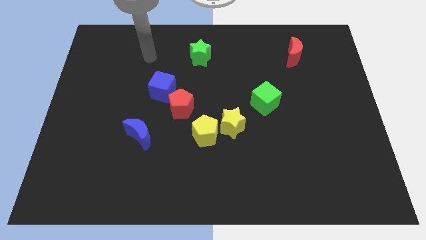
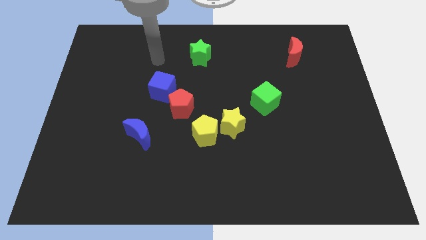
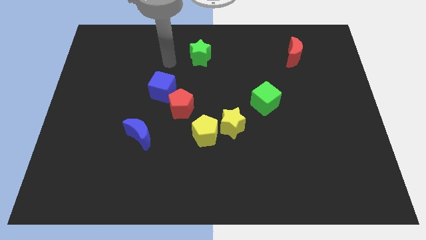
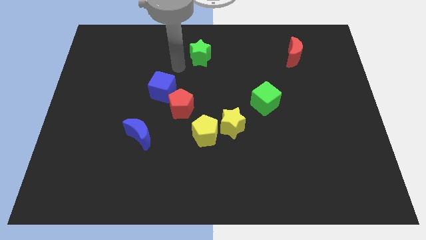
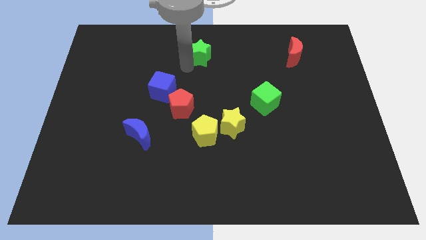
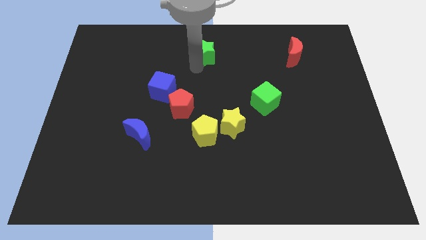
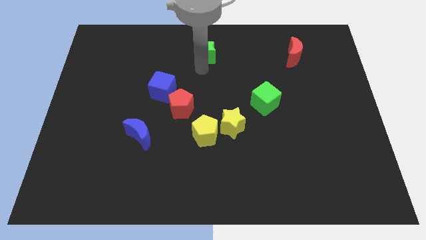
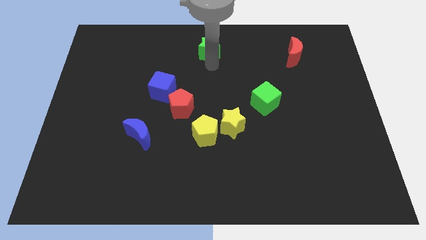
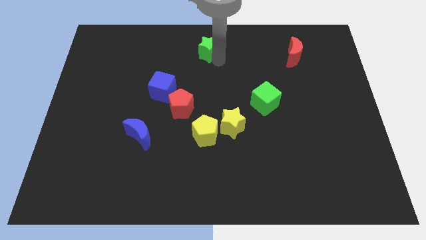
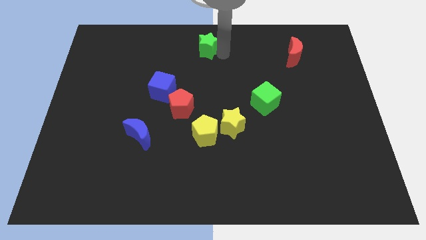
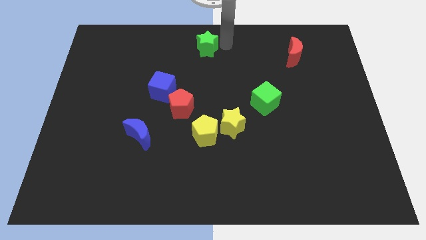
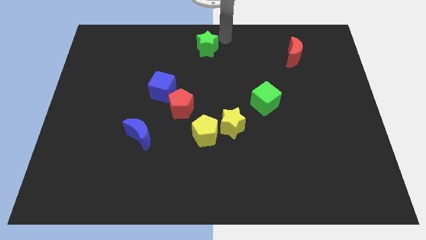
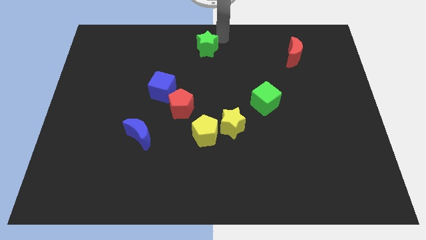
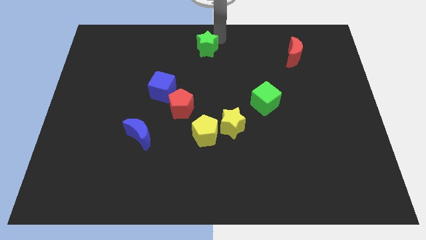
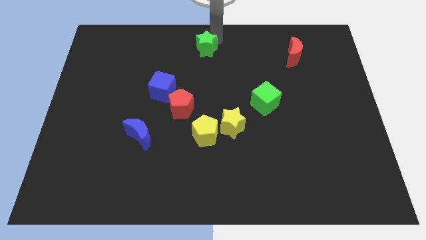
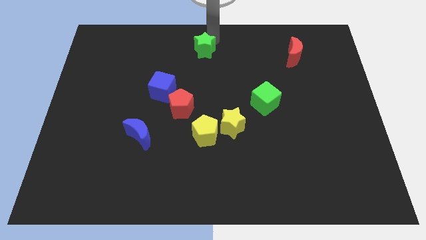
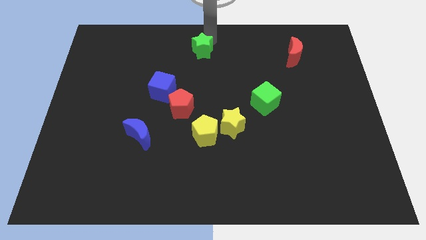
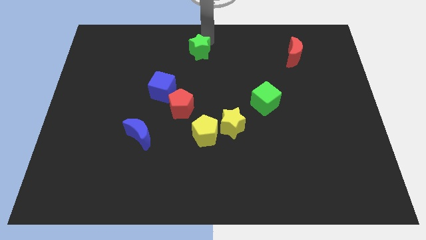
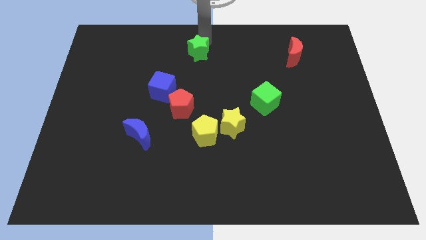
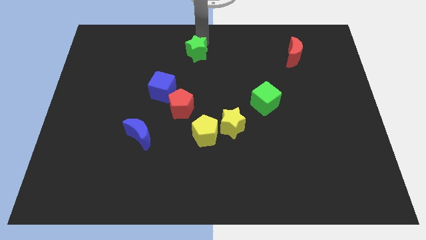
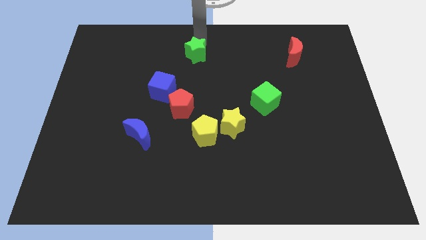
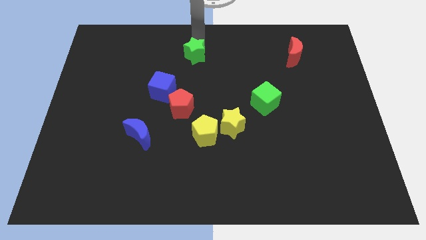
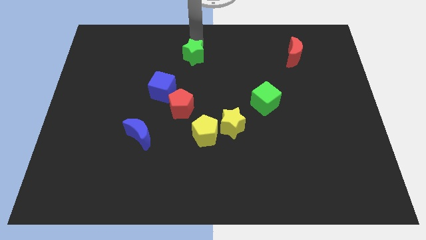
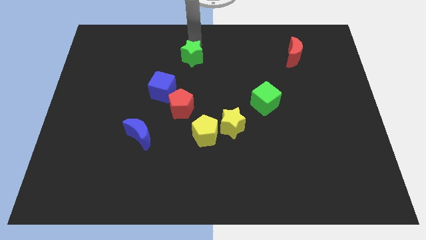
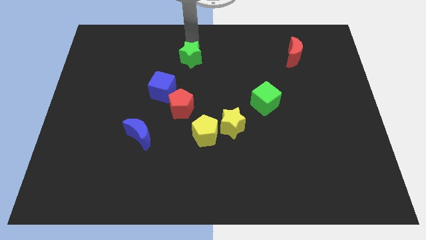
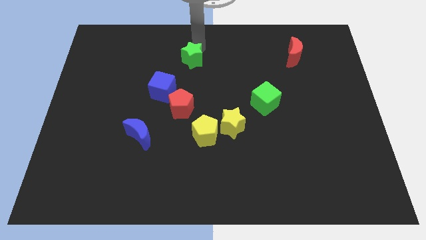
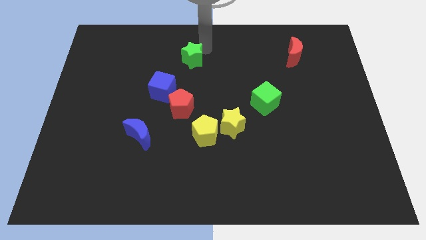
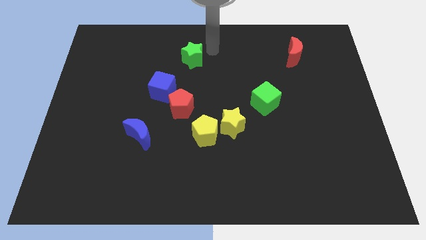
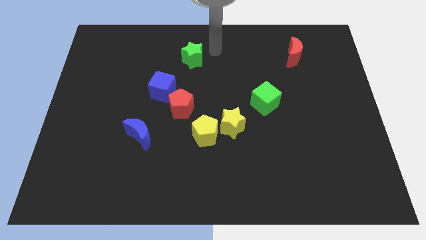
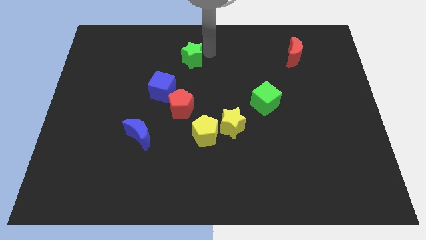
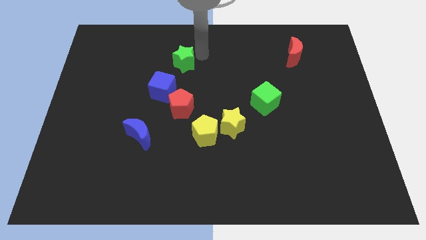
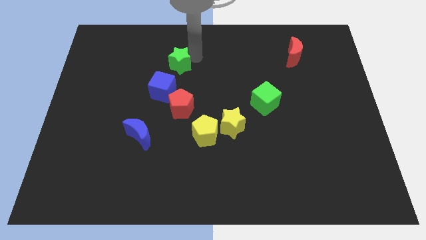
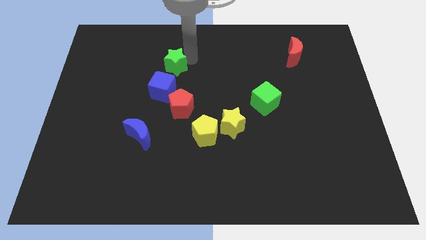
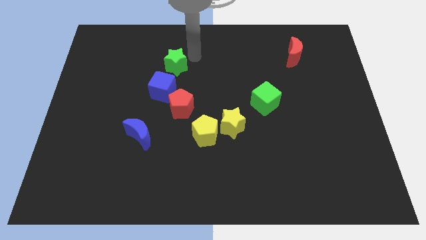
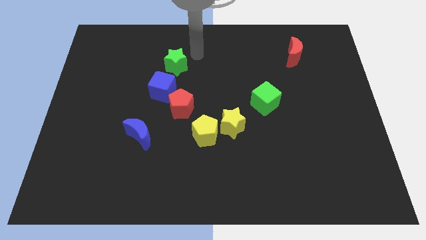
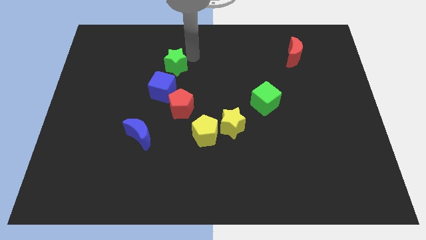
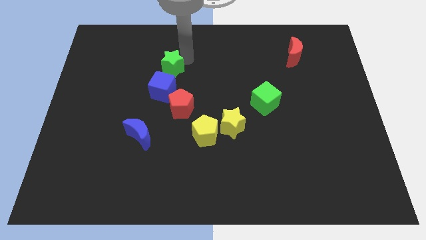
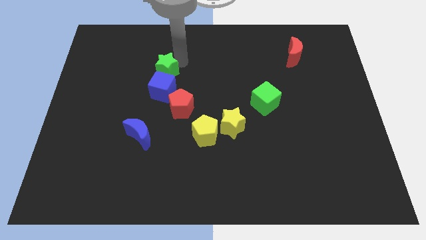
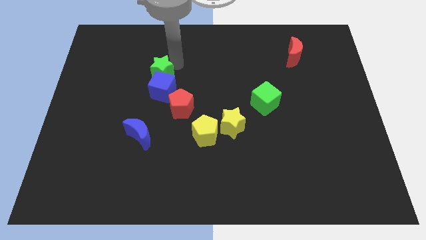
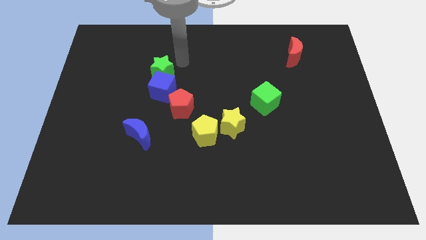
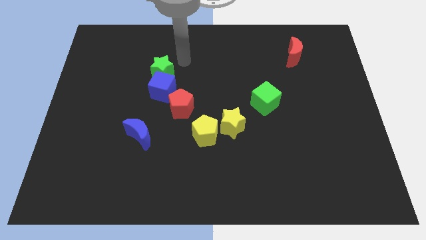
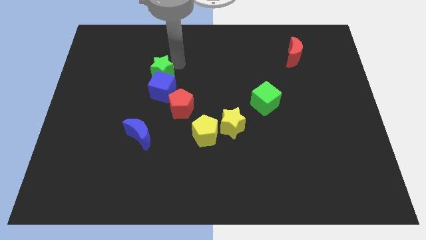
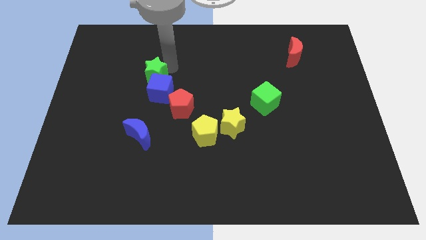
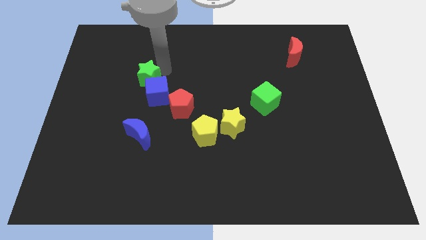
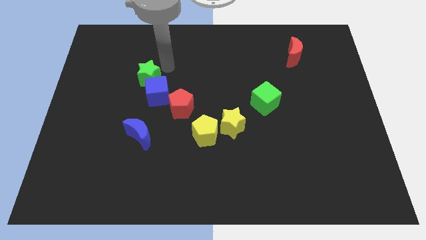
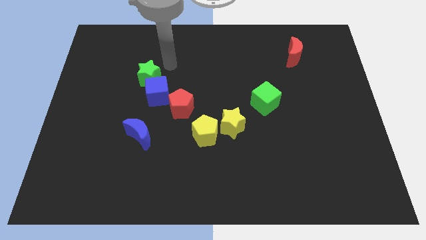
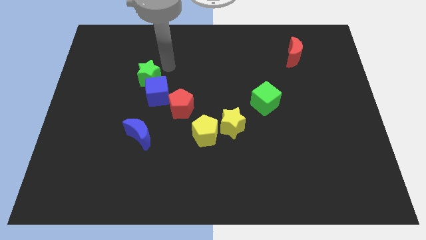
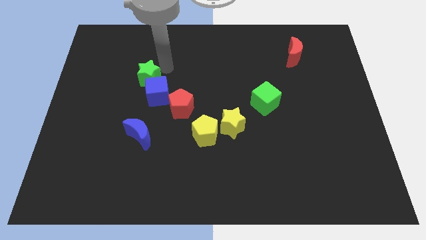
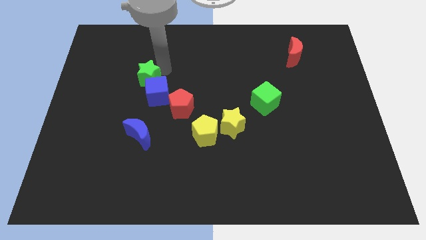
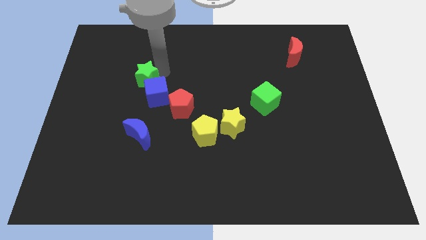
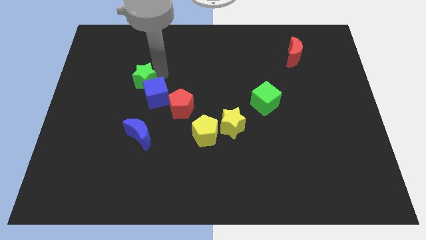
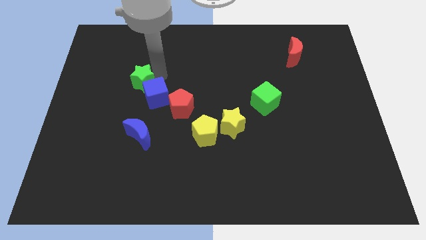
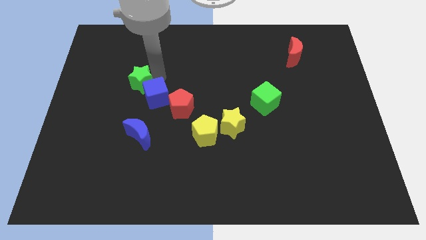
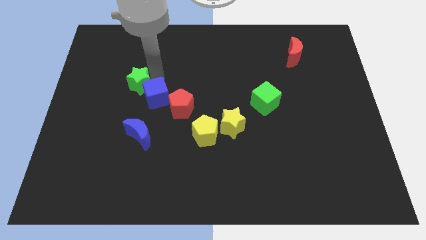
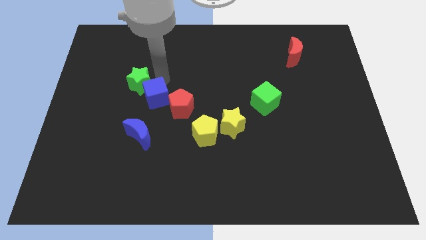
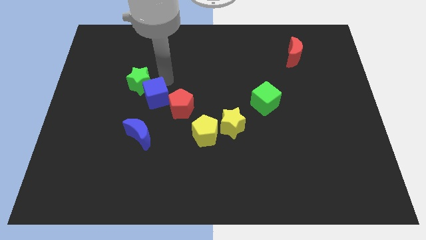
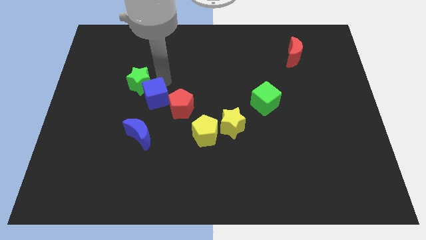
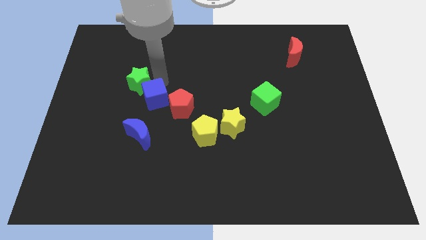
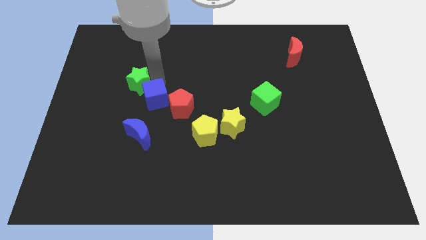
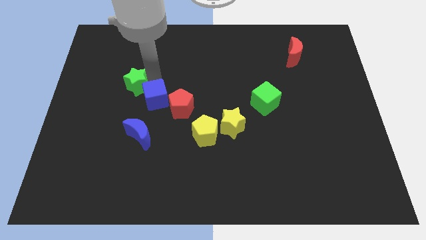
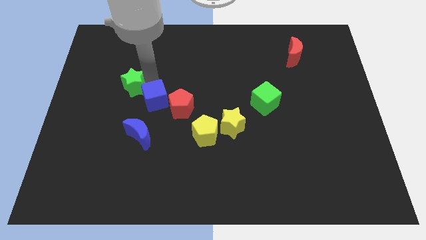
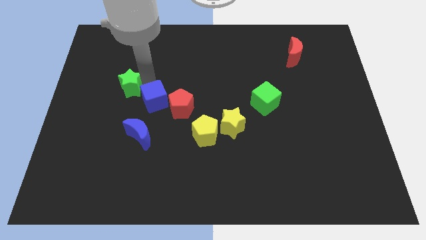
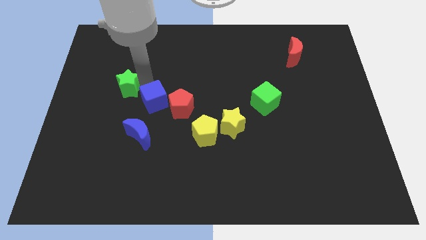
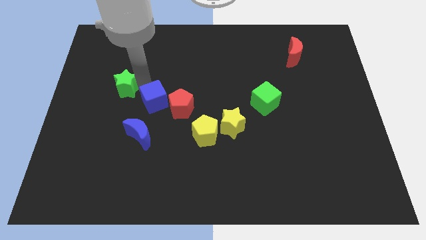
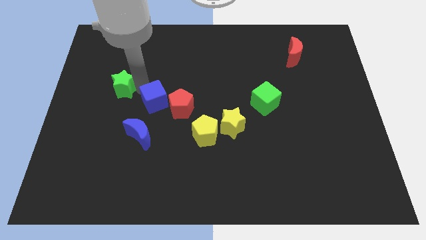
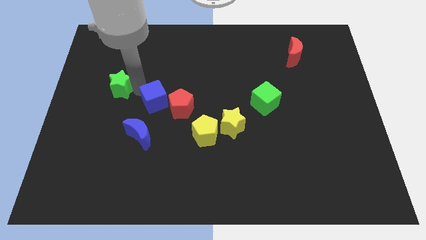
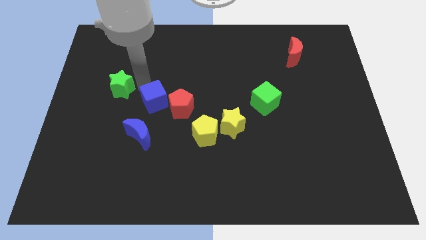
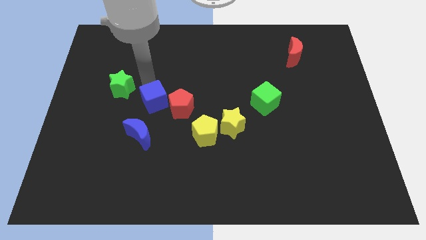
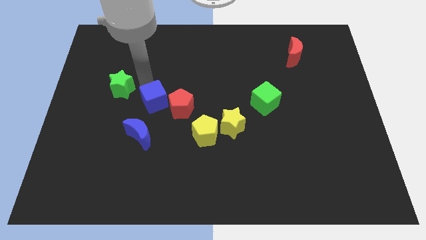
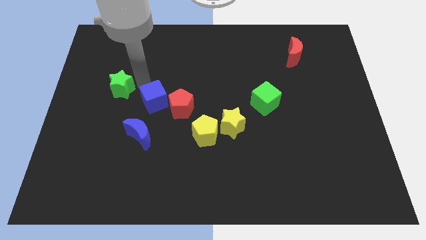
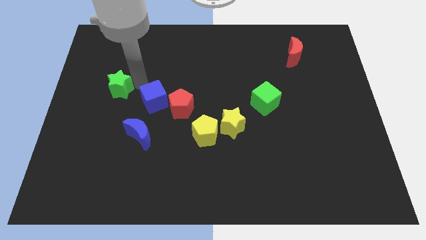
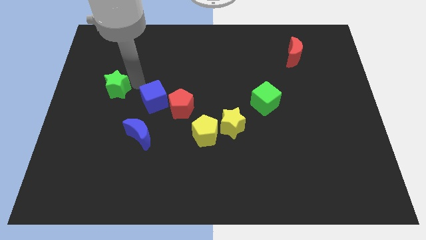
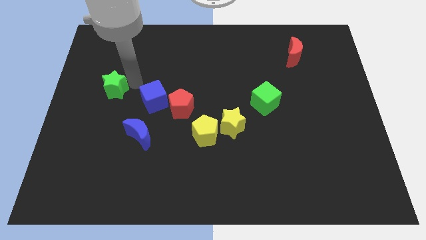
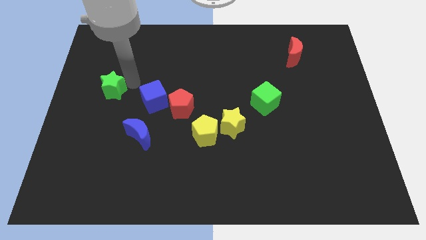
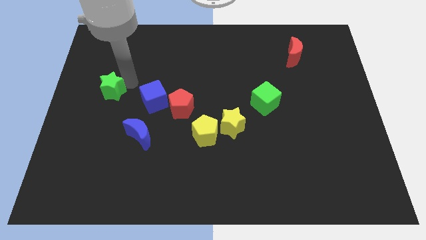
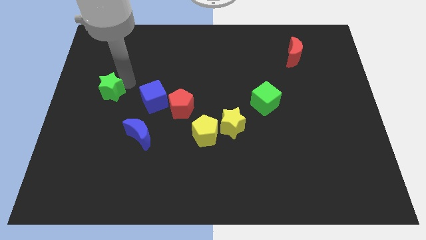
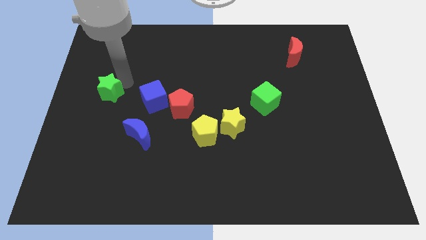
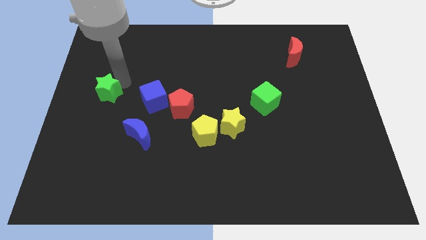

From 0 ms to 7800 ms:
push the green star to the center left
